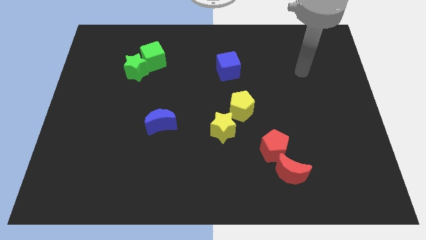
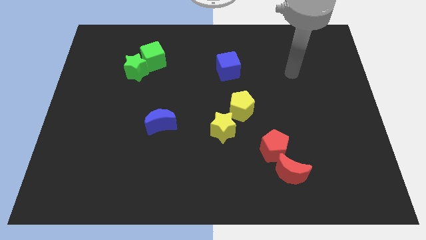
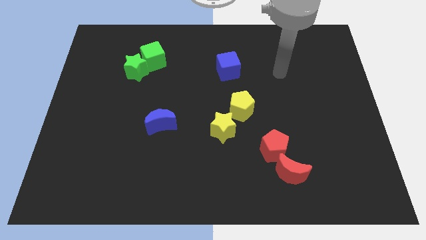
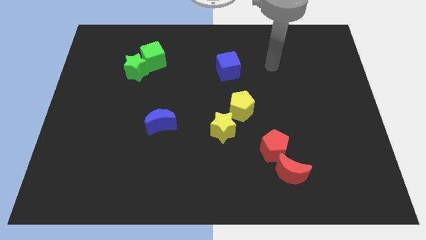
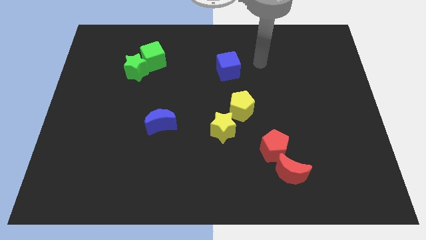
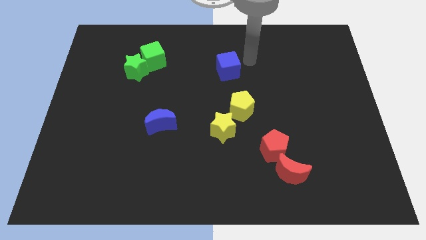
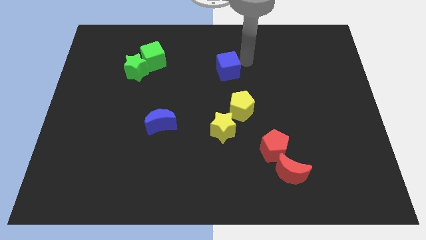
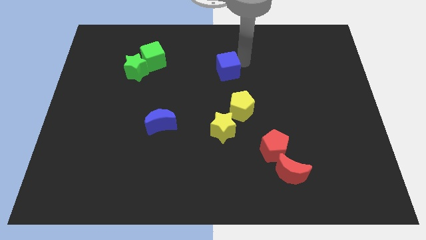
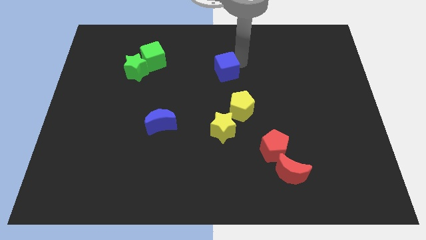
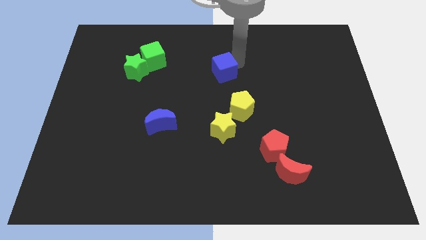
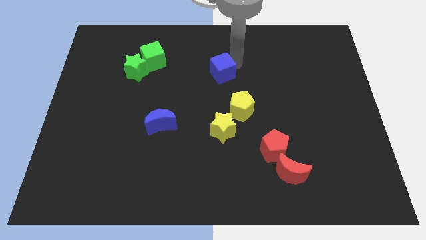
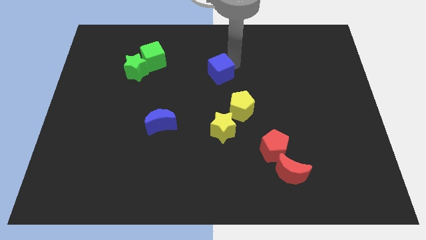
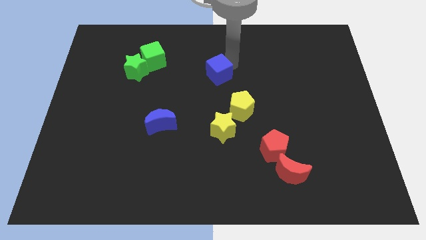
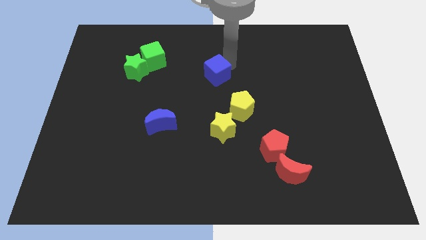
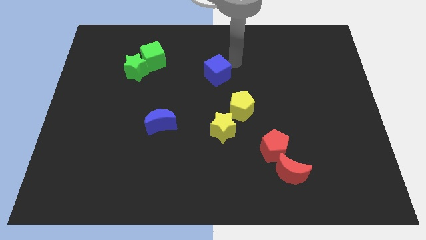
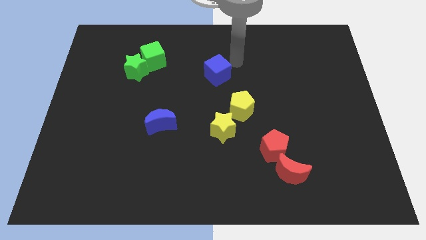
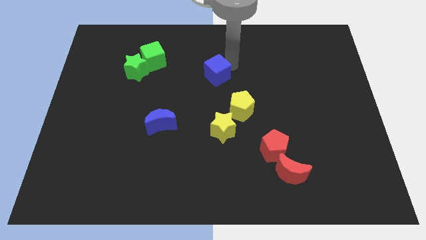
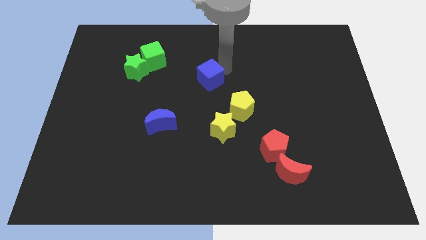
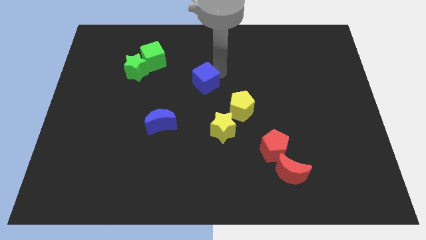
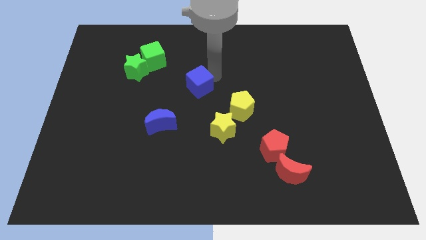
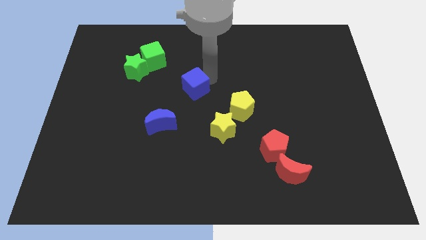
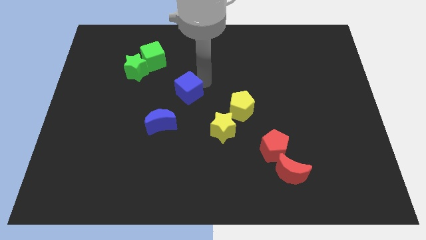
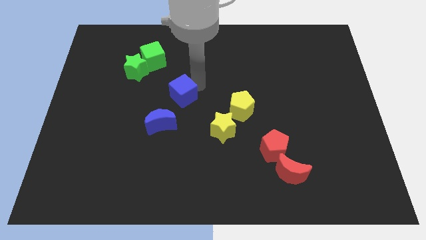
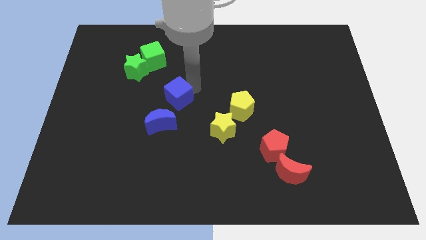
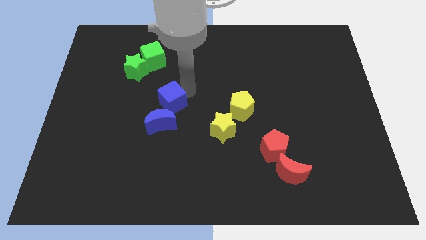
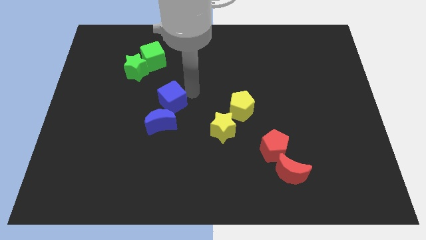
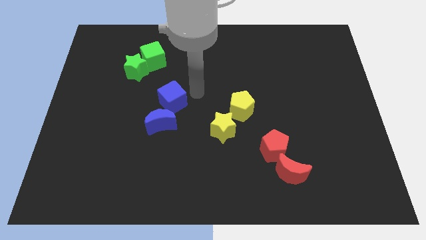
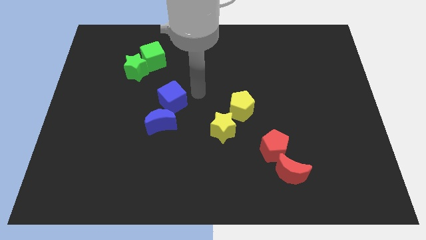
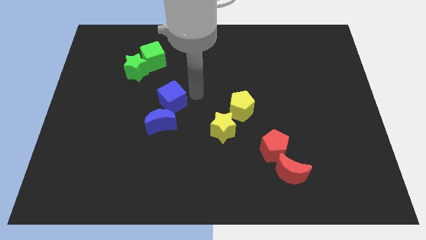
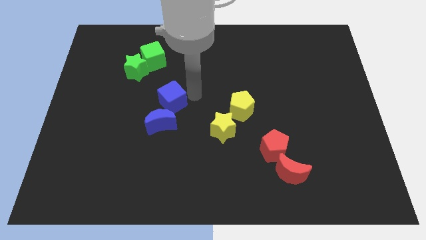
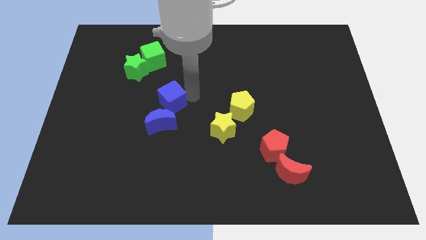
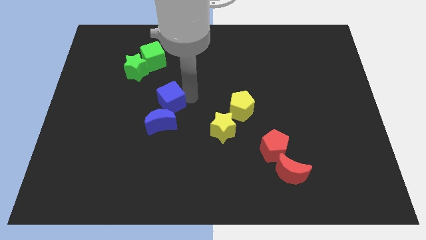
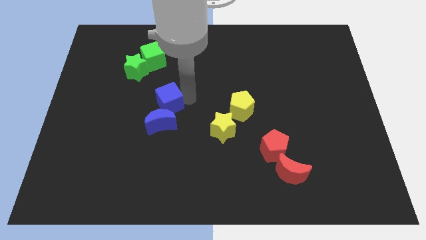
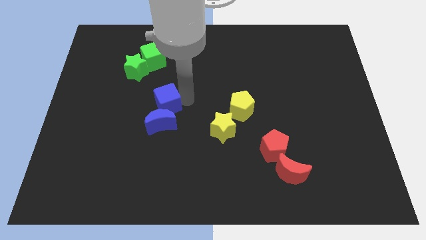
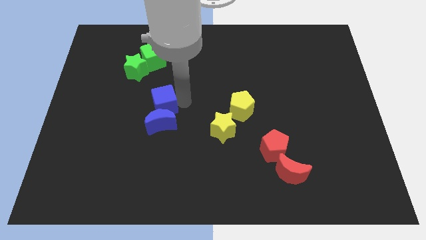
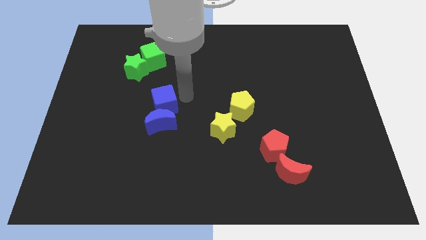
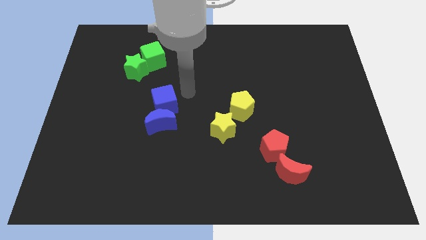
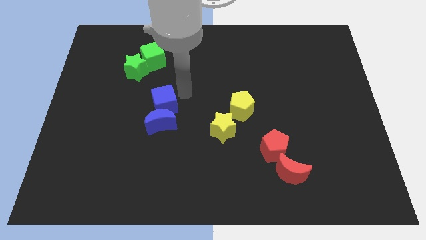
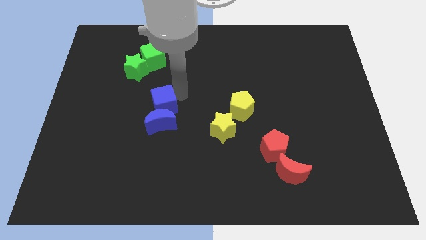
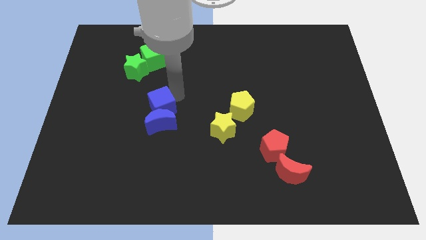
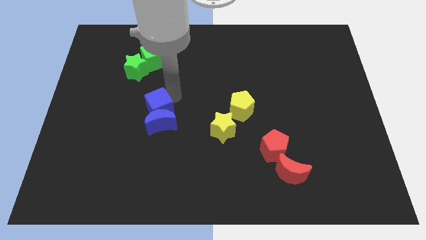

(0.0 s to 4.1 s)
push the blue cube downwards and then to the left

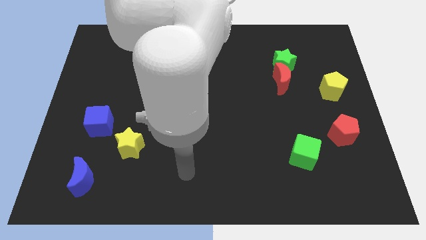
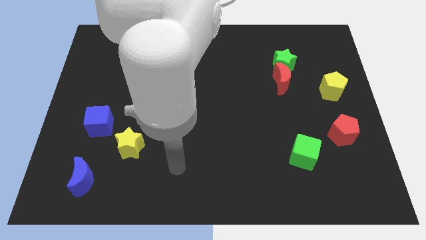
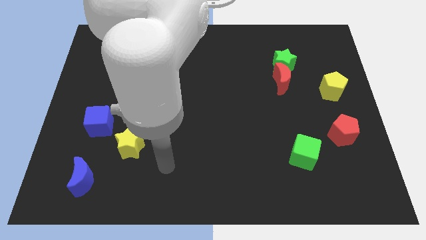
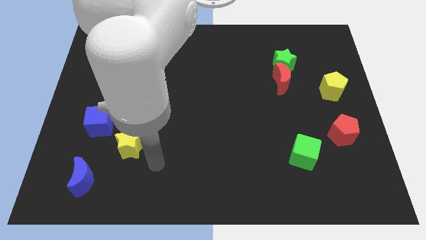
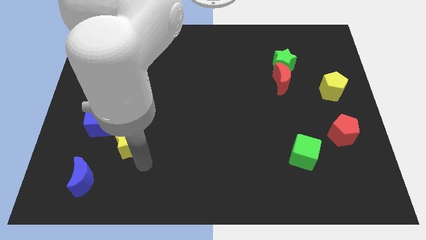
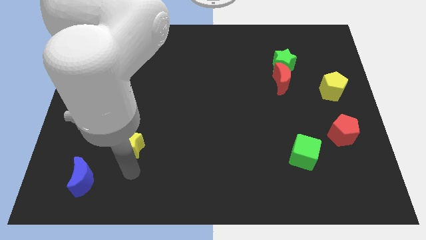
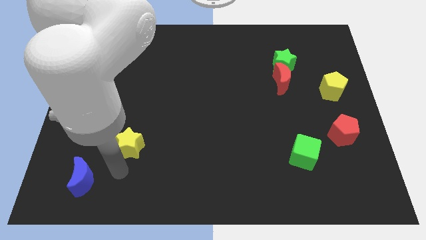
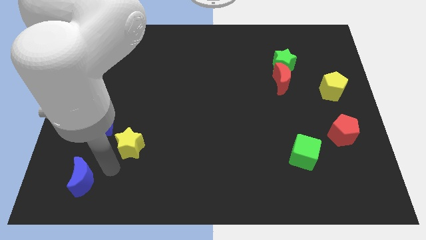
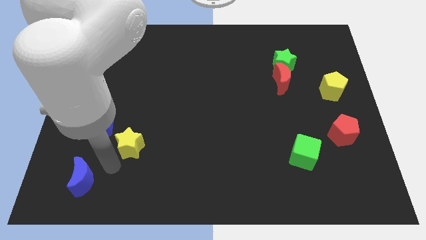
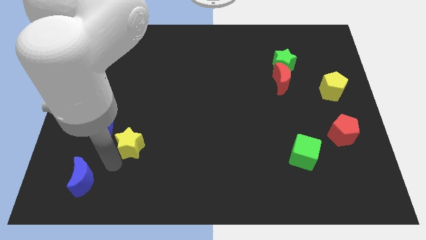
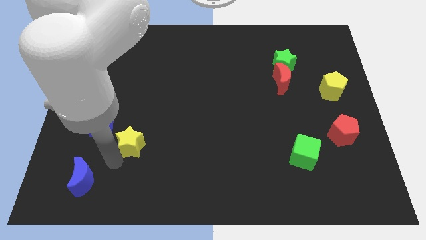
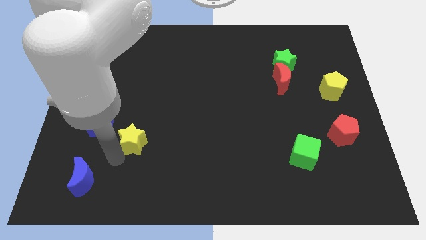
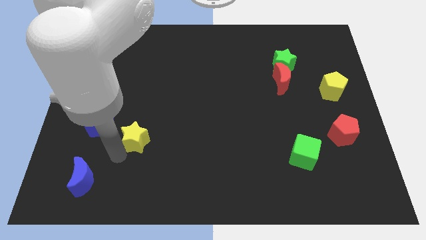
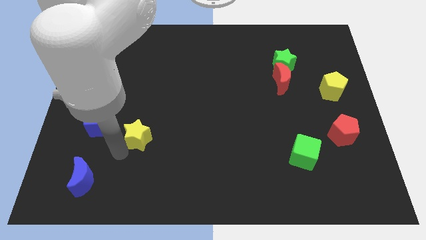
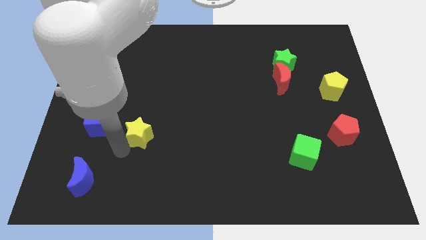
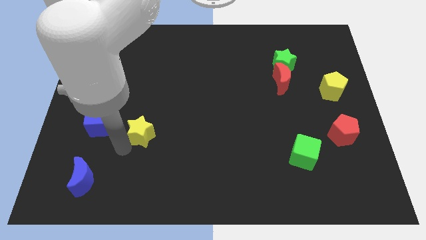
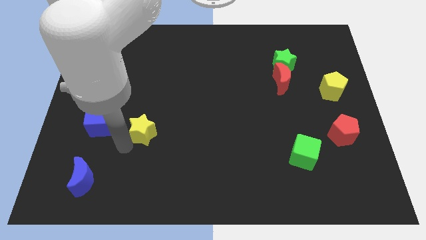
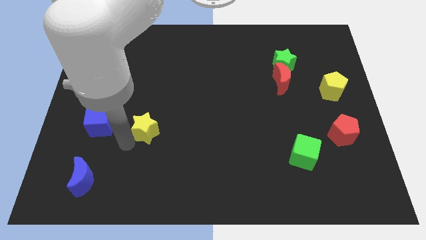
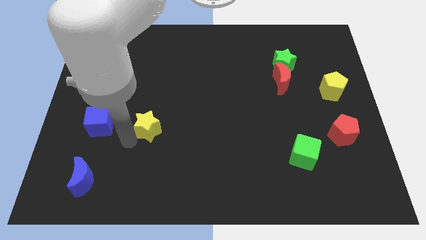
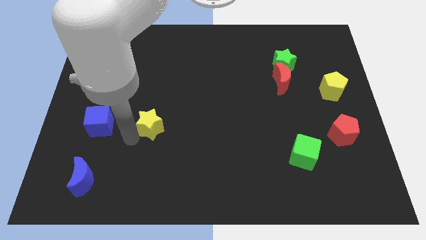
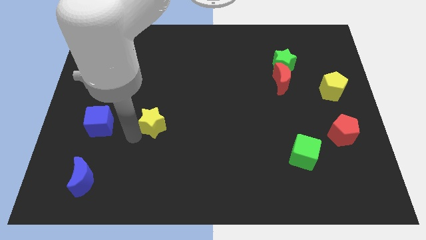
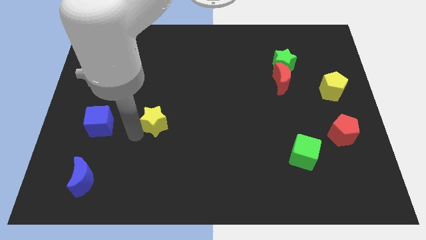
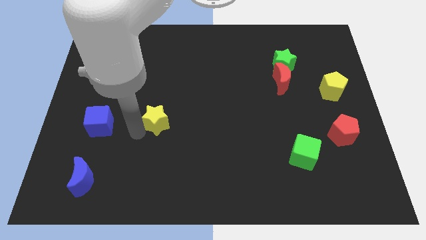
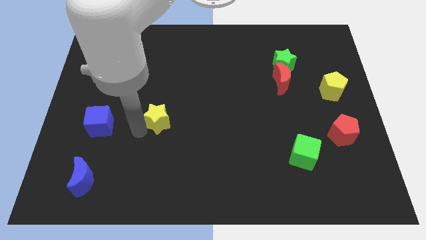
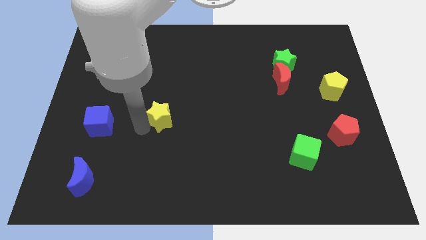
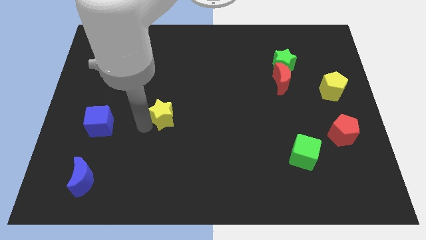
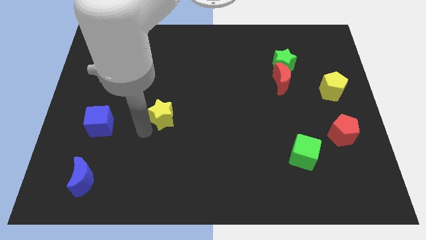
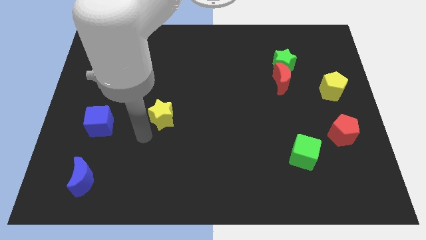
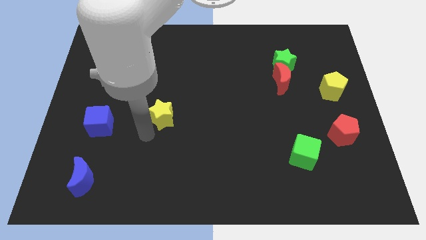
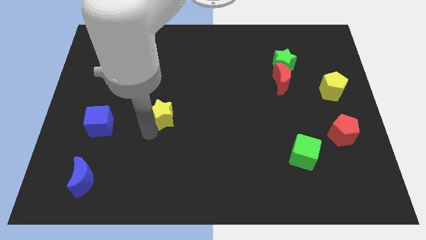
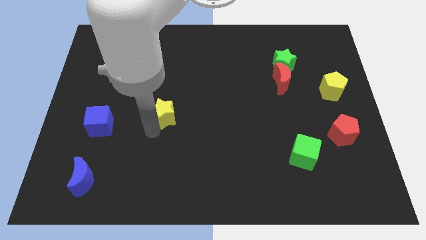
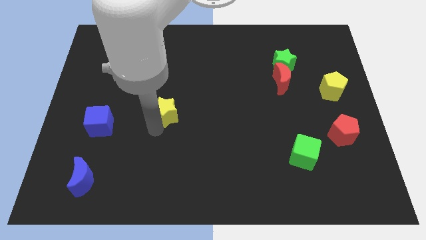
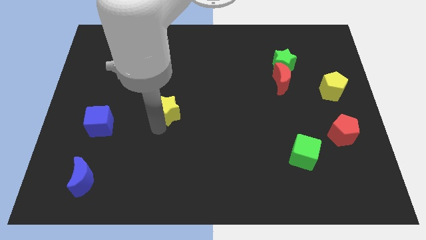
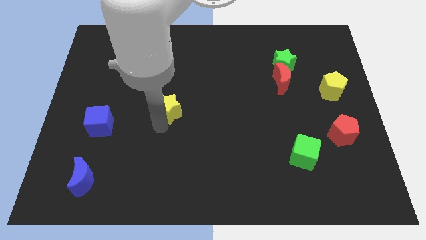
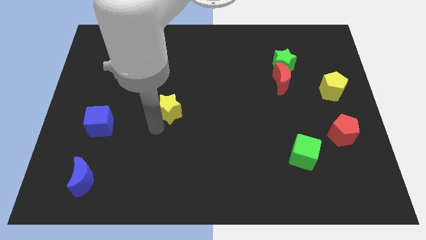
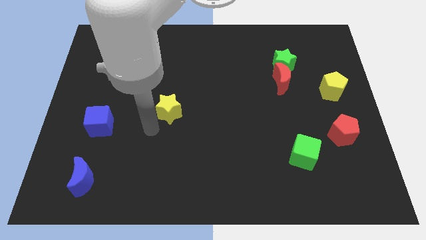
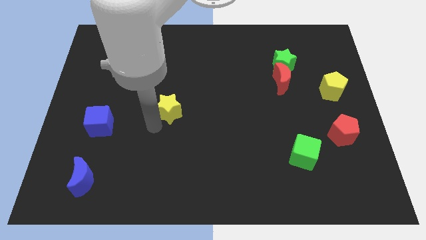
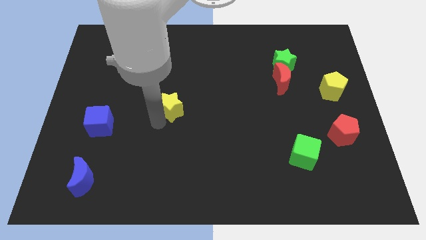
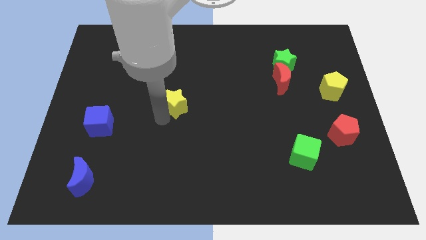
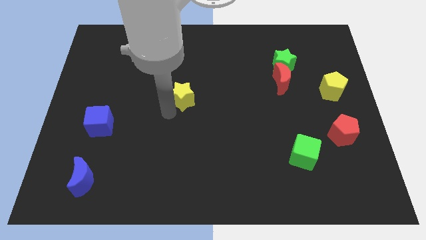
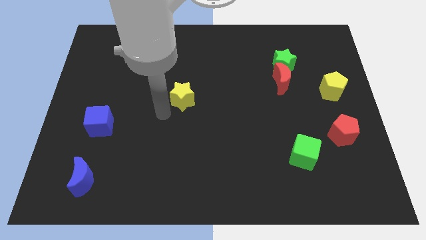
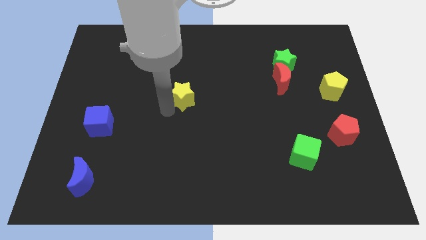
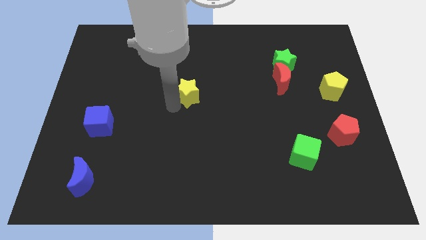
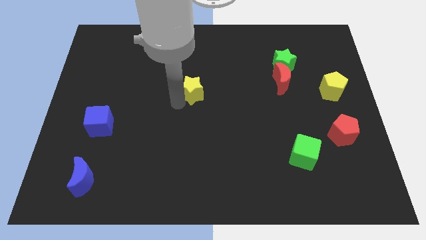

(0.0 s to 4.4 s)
move the yellow star up and to the right diagonally
